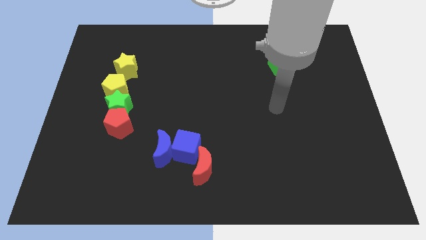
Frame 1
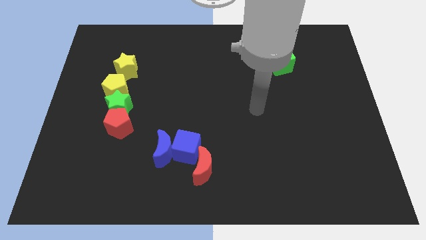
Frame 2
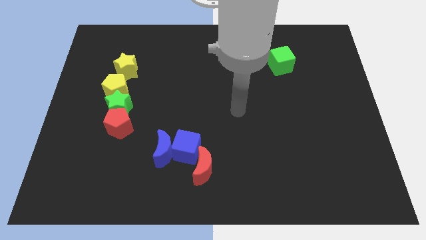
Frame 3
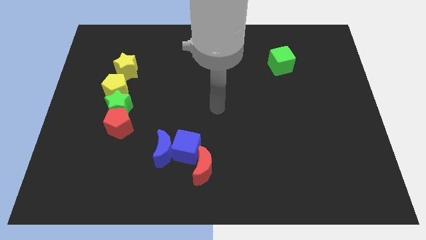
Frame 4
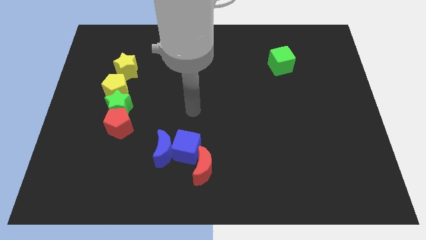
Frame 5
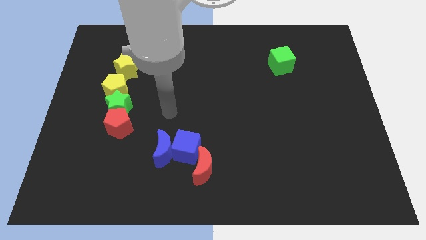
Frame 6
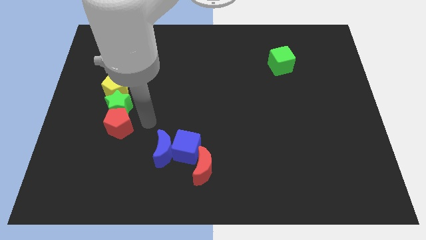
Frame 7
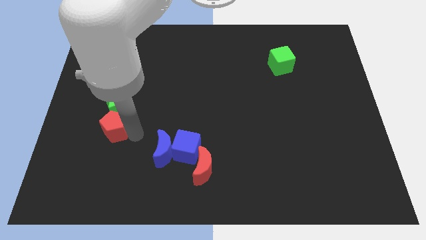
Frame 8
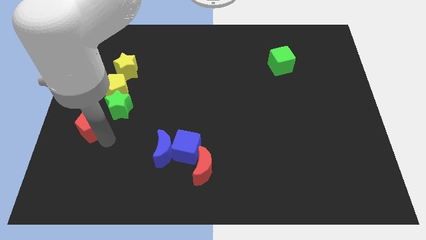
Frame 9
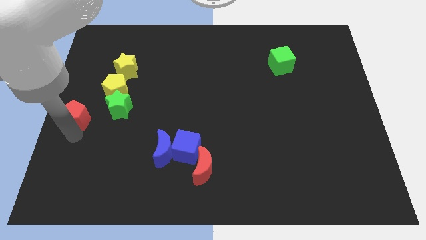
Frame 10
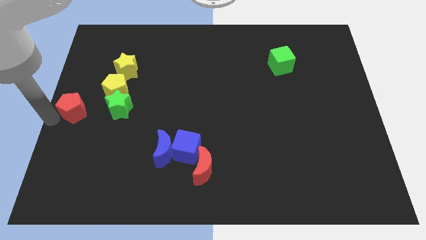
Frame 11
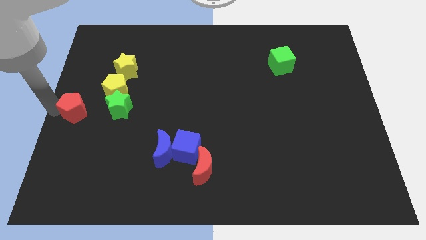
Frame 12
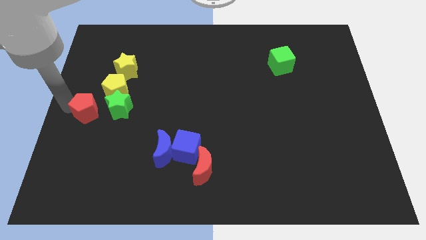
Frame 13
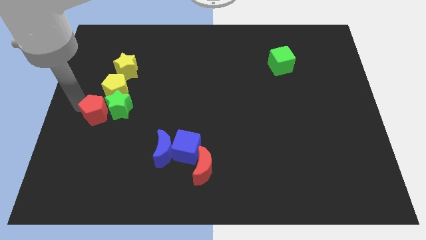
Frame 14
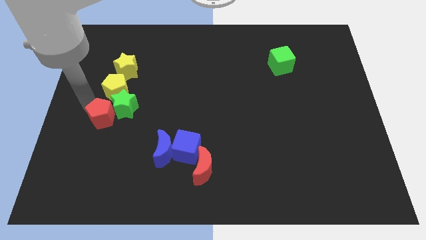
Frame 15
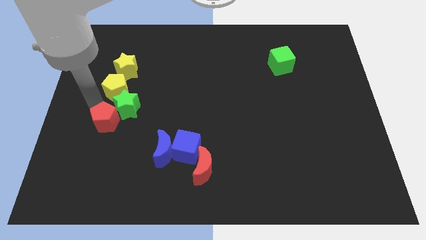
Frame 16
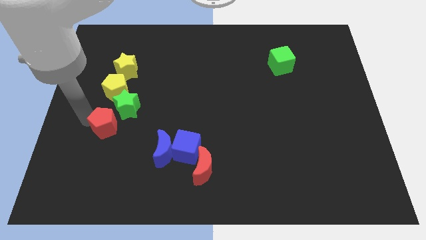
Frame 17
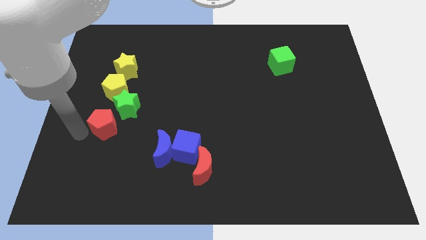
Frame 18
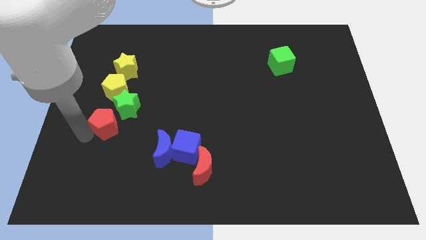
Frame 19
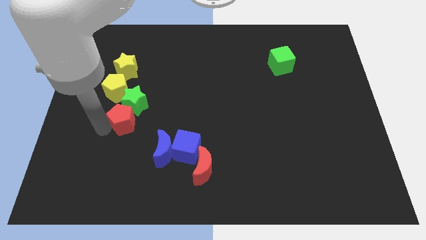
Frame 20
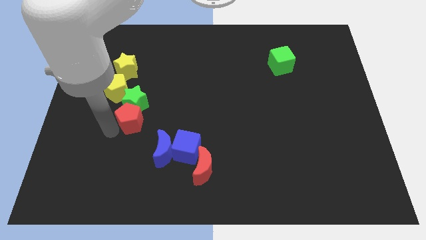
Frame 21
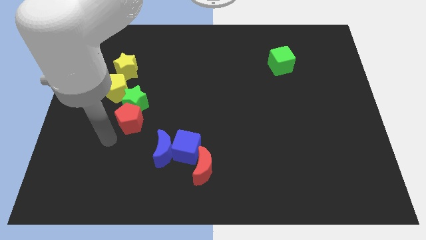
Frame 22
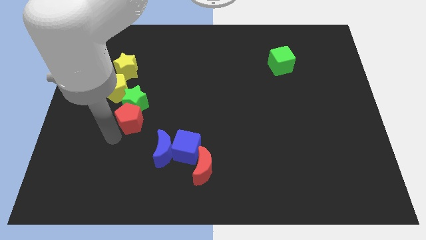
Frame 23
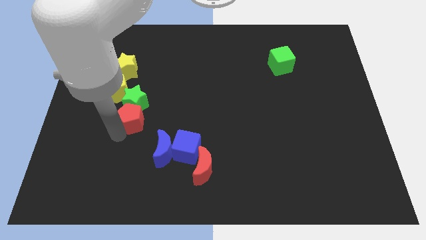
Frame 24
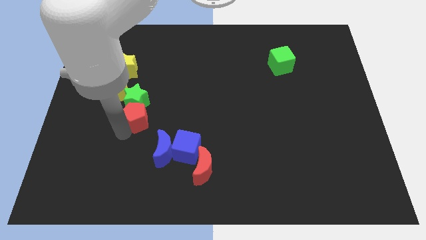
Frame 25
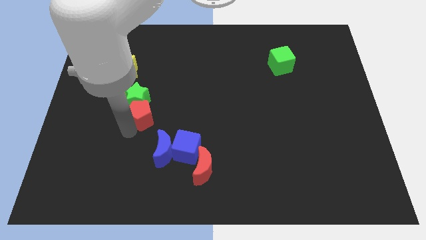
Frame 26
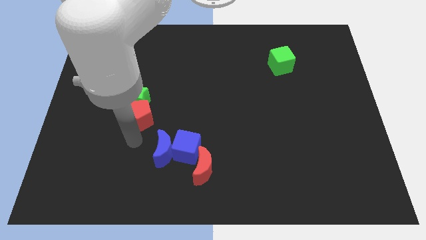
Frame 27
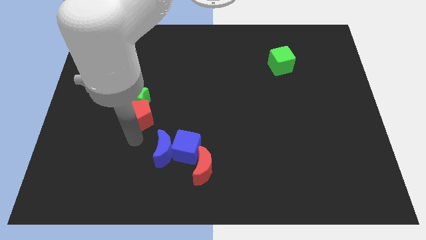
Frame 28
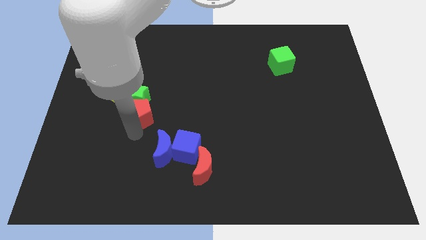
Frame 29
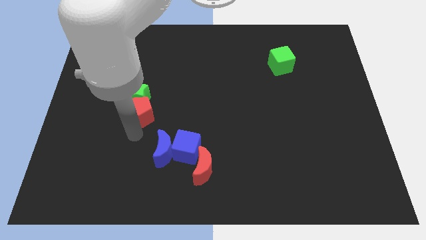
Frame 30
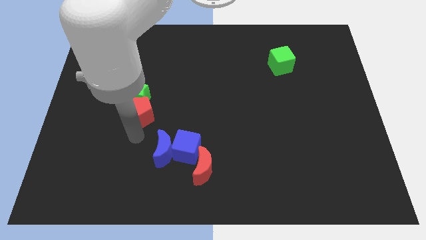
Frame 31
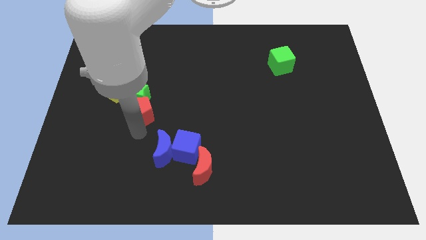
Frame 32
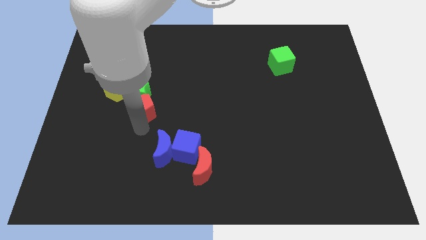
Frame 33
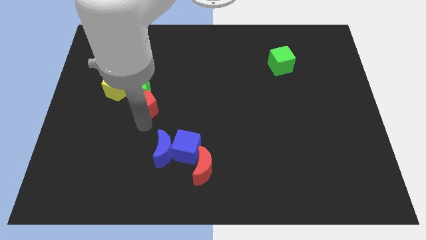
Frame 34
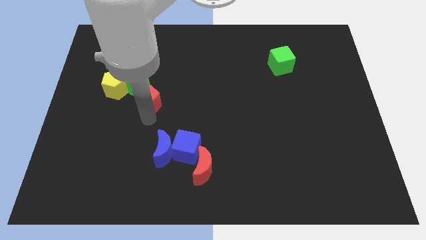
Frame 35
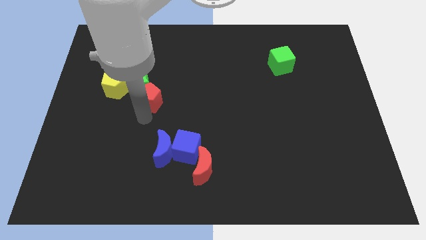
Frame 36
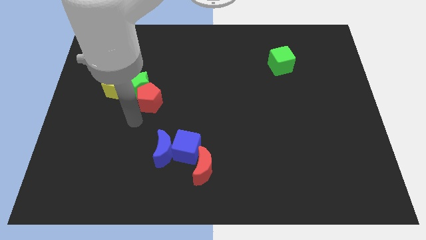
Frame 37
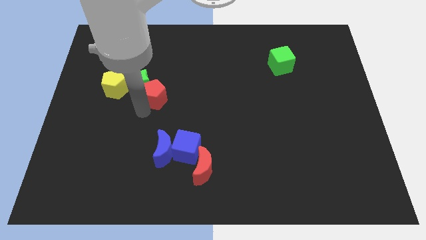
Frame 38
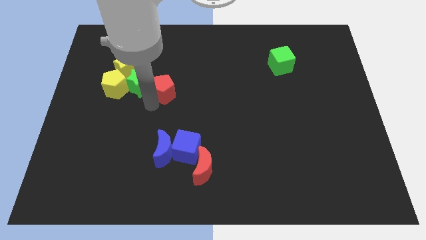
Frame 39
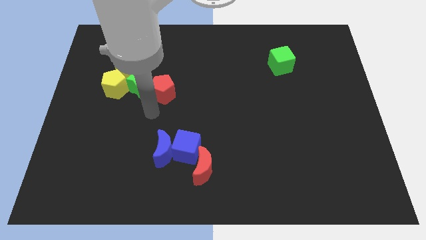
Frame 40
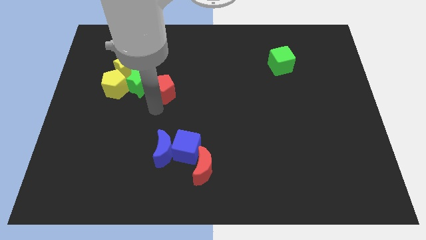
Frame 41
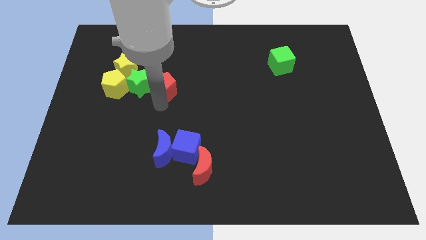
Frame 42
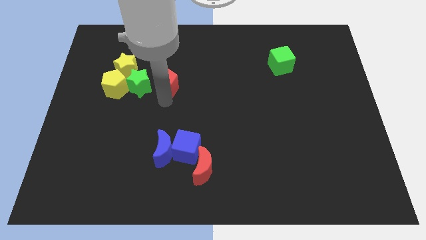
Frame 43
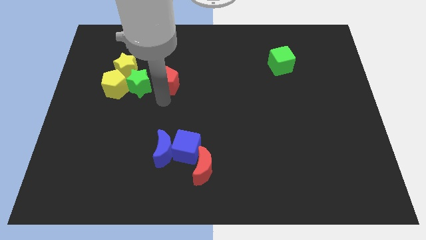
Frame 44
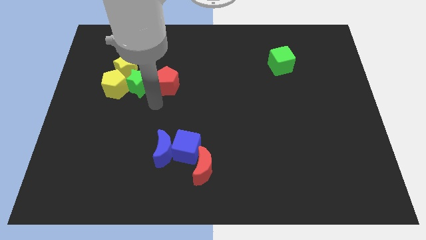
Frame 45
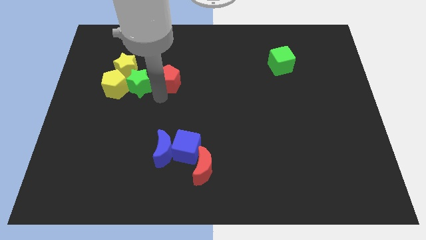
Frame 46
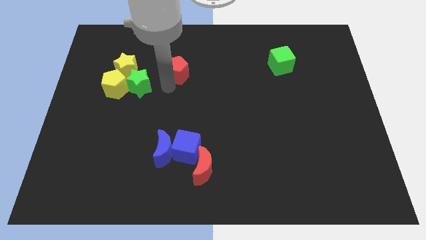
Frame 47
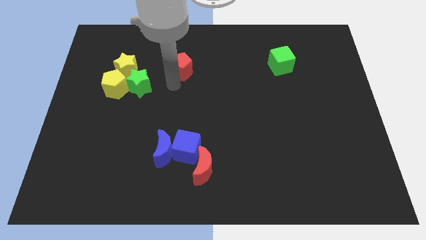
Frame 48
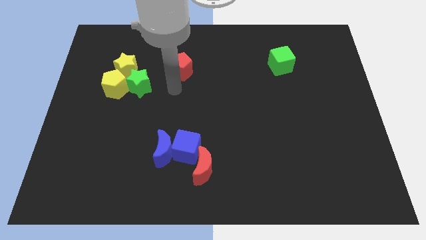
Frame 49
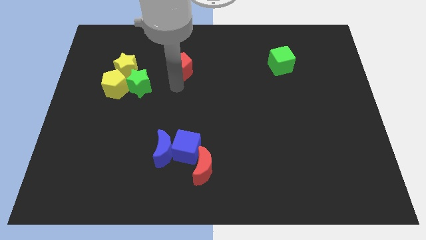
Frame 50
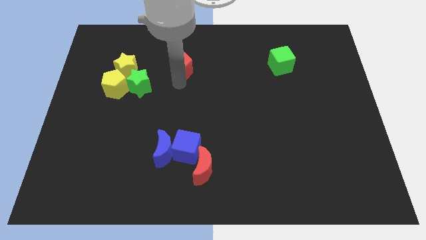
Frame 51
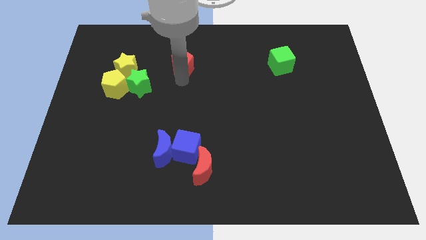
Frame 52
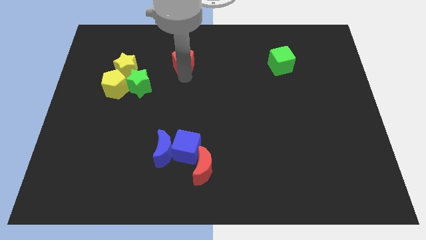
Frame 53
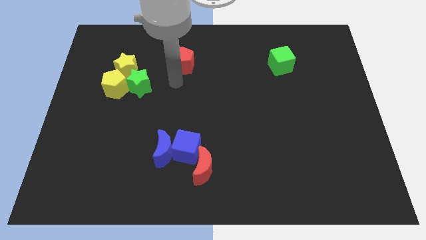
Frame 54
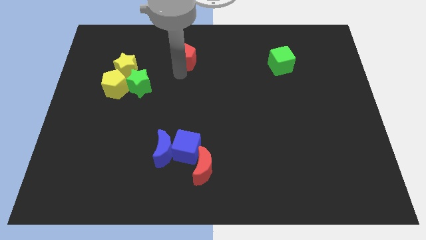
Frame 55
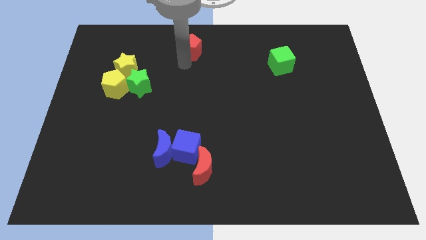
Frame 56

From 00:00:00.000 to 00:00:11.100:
slide the red pentagon to the top side
